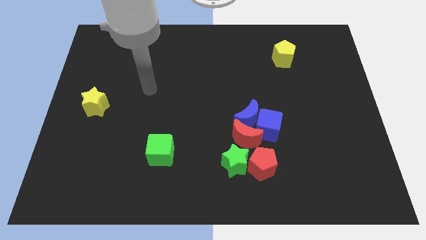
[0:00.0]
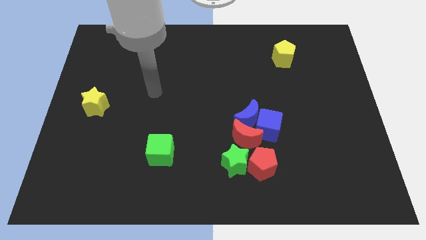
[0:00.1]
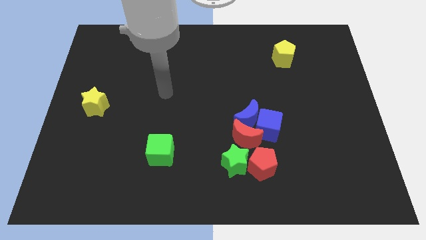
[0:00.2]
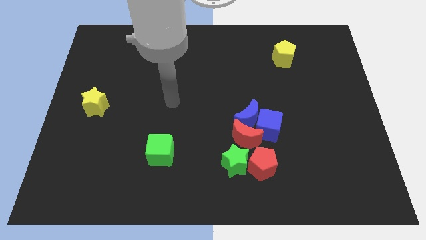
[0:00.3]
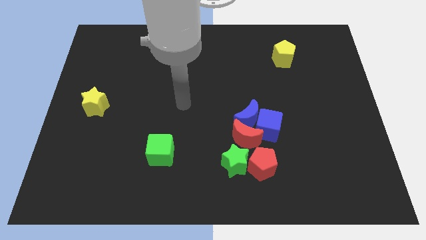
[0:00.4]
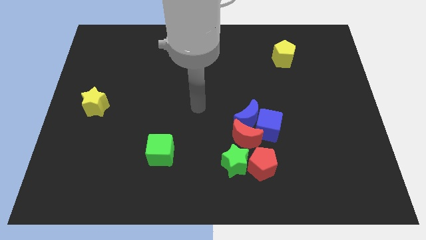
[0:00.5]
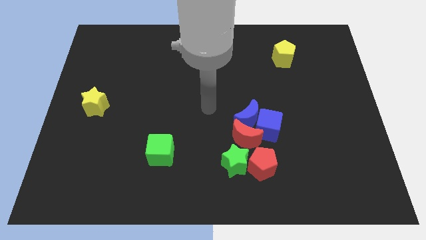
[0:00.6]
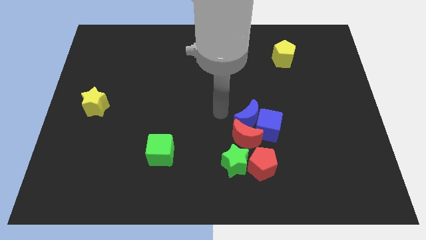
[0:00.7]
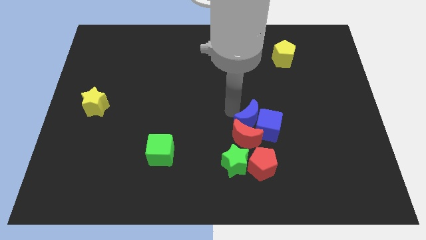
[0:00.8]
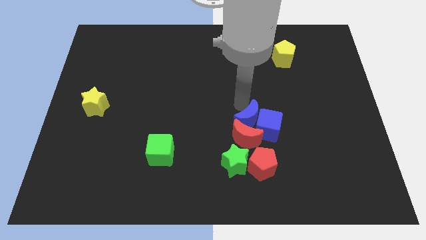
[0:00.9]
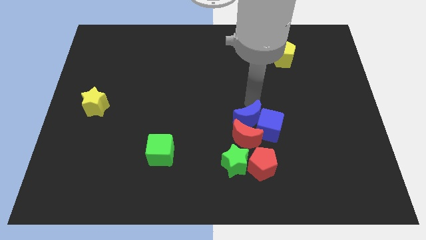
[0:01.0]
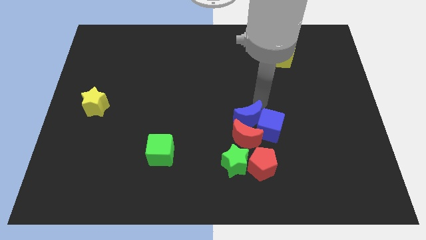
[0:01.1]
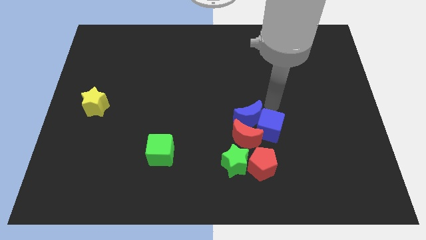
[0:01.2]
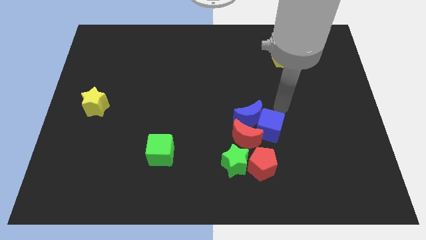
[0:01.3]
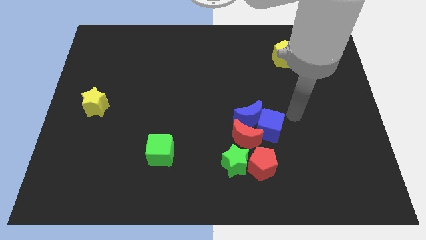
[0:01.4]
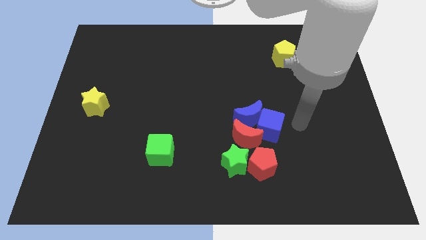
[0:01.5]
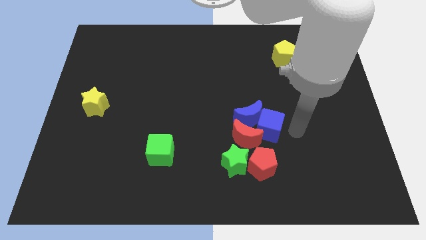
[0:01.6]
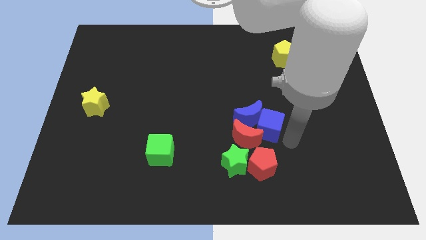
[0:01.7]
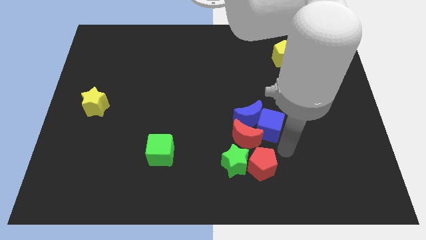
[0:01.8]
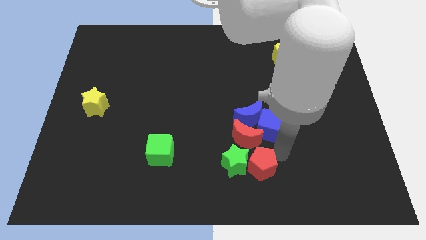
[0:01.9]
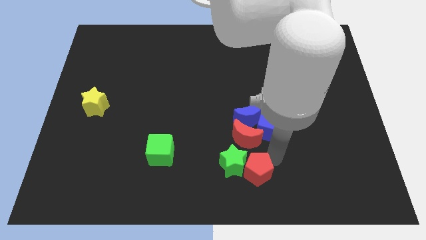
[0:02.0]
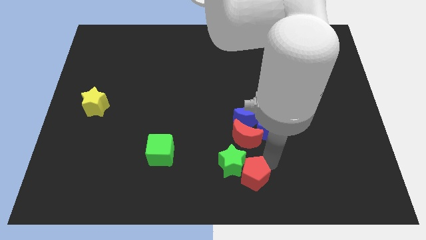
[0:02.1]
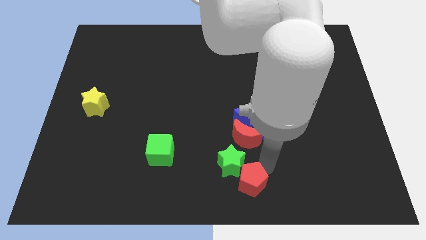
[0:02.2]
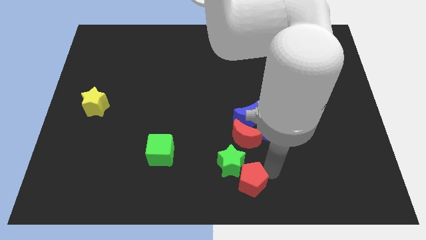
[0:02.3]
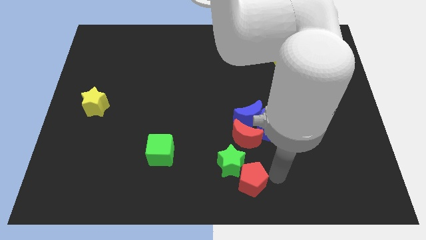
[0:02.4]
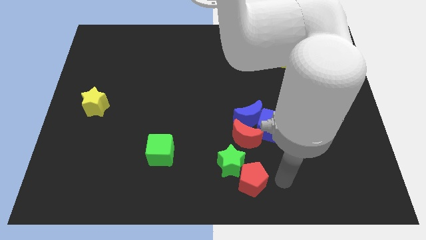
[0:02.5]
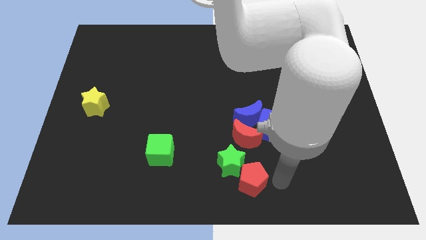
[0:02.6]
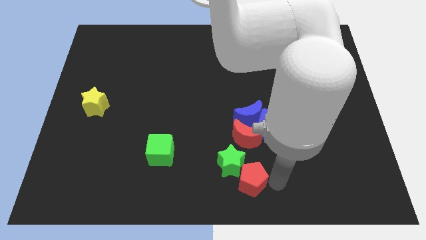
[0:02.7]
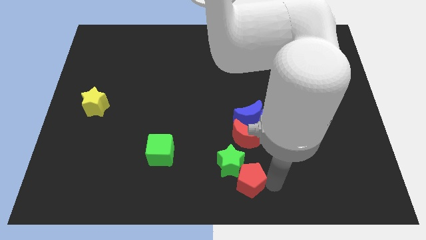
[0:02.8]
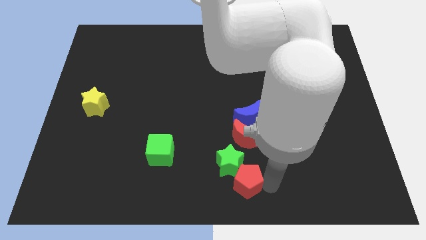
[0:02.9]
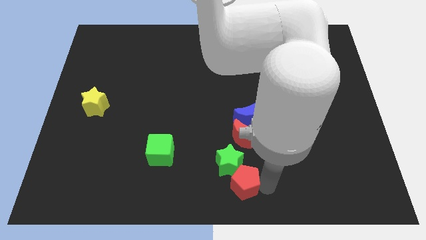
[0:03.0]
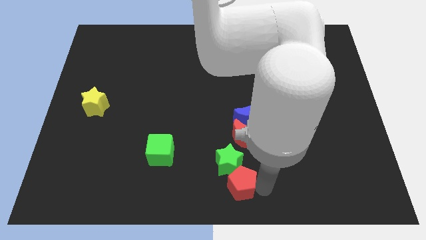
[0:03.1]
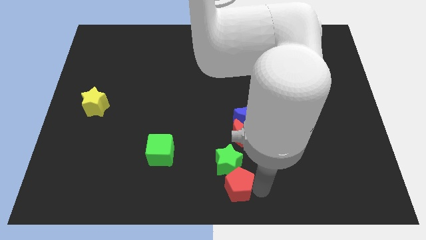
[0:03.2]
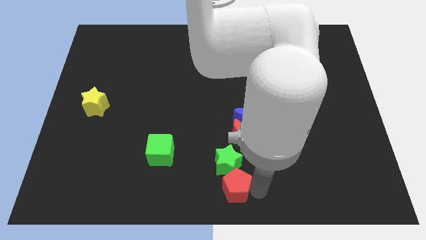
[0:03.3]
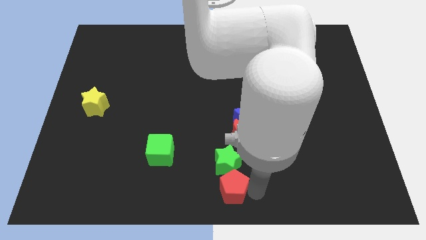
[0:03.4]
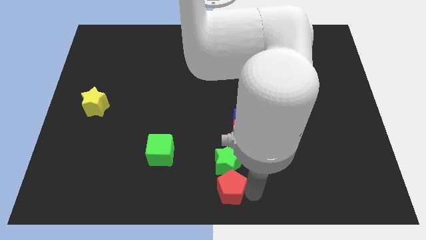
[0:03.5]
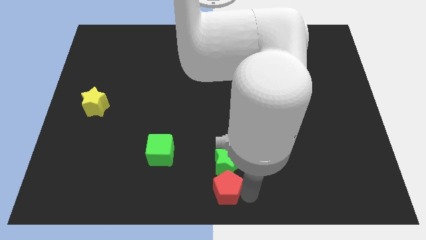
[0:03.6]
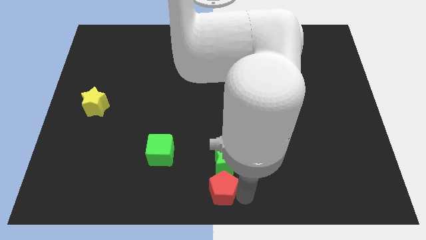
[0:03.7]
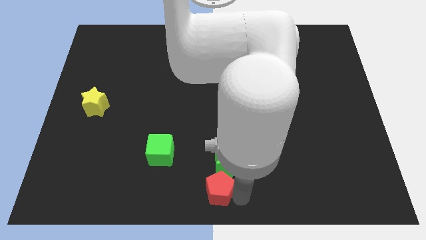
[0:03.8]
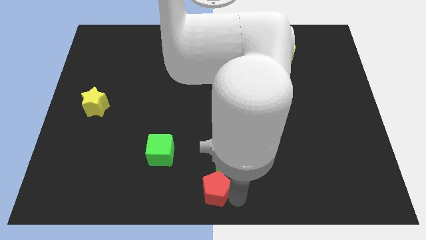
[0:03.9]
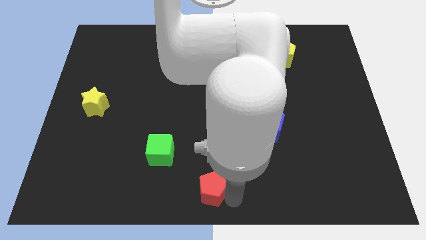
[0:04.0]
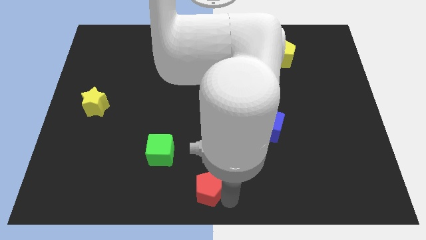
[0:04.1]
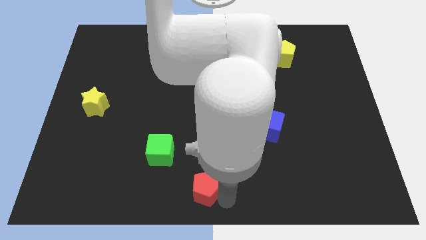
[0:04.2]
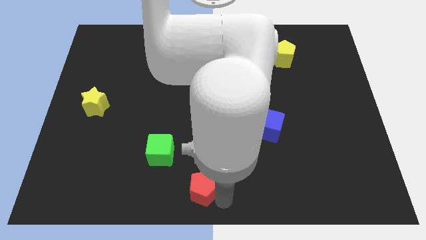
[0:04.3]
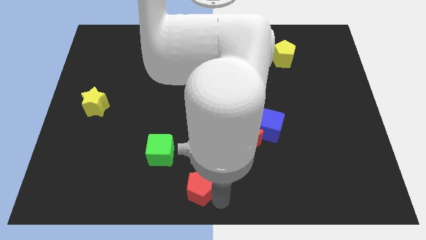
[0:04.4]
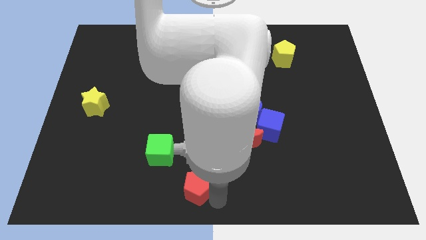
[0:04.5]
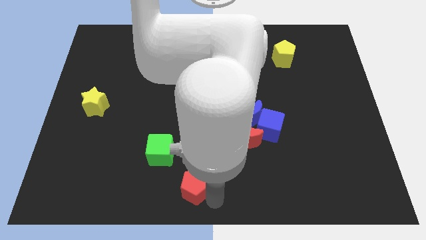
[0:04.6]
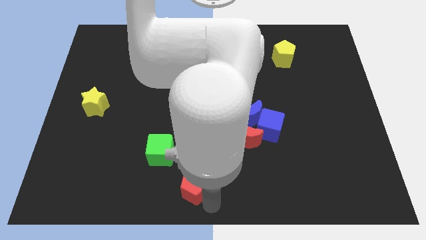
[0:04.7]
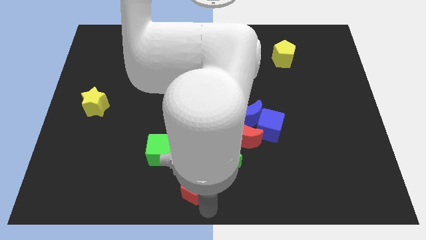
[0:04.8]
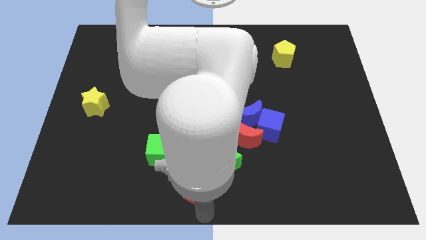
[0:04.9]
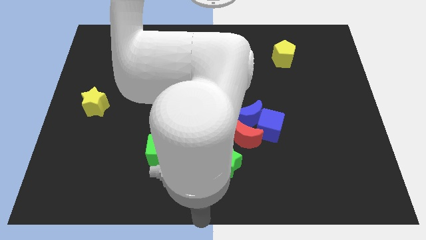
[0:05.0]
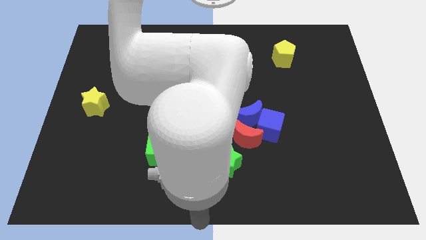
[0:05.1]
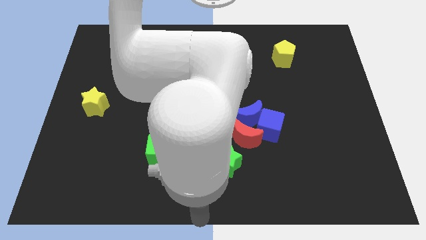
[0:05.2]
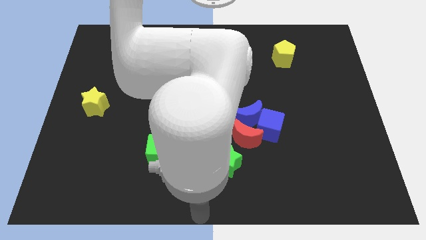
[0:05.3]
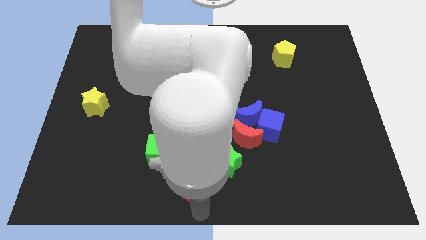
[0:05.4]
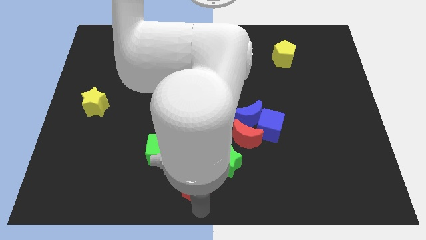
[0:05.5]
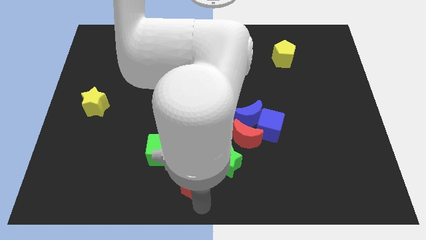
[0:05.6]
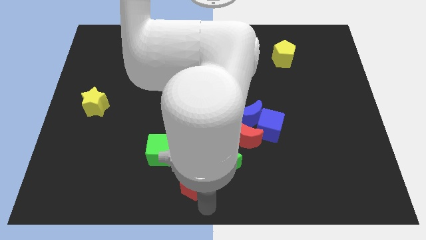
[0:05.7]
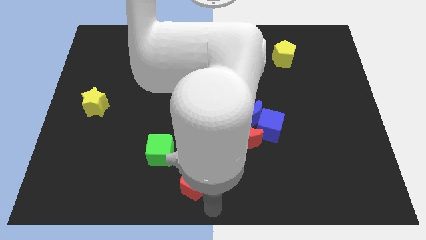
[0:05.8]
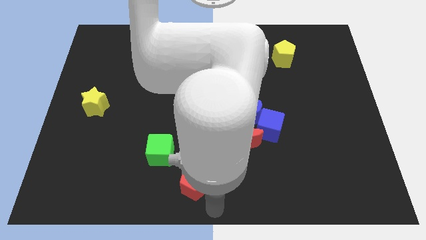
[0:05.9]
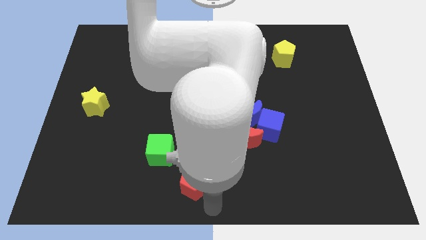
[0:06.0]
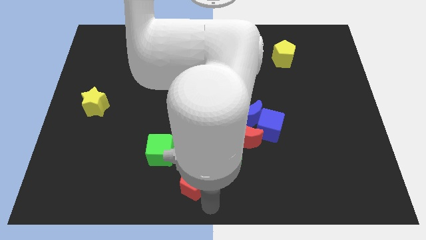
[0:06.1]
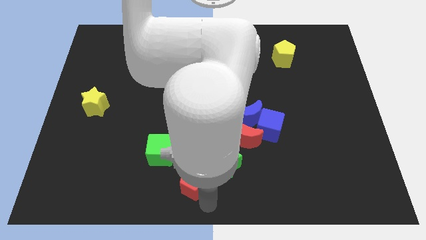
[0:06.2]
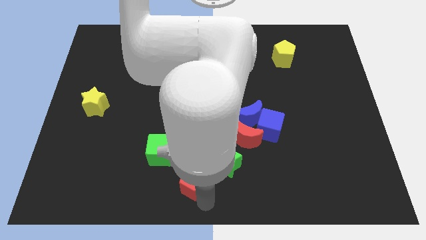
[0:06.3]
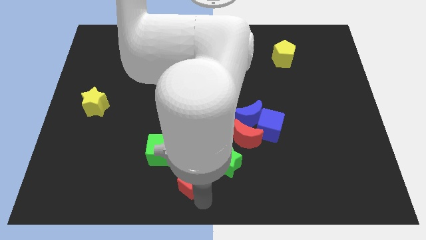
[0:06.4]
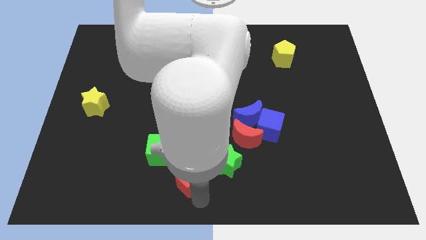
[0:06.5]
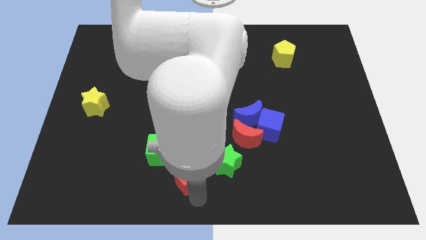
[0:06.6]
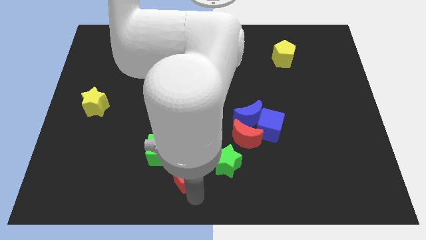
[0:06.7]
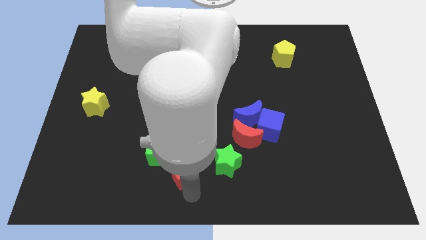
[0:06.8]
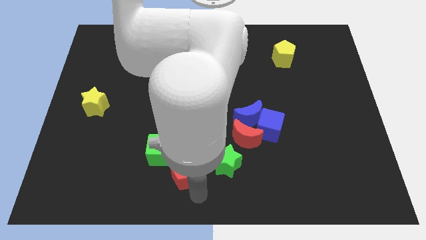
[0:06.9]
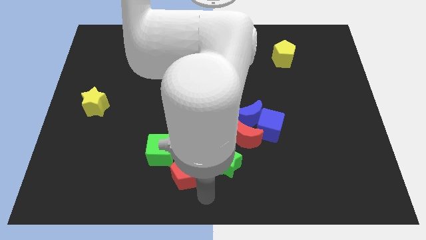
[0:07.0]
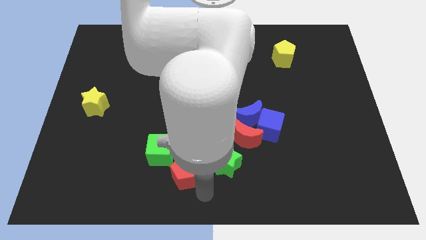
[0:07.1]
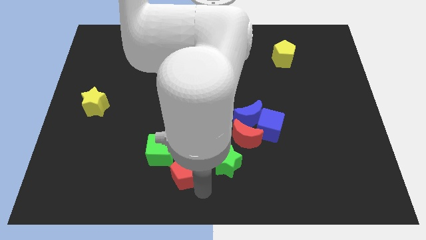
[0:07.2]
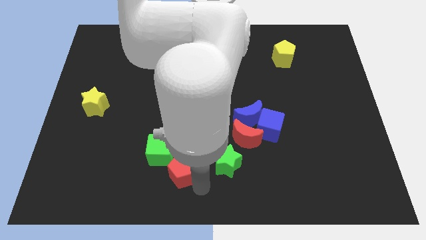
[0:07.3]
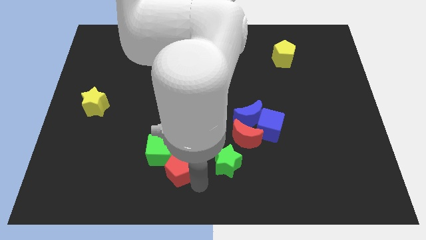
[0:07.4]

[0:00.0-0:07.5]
push the red pentagon close to the green cube
